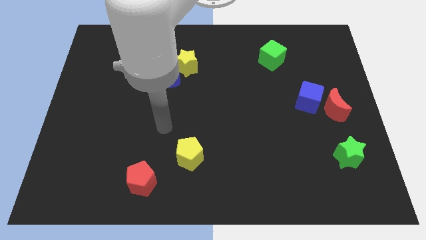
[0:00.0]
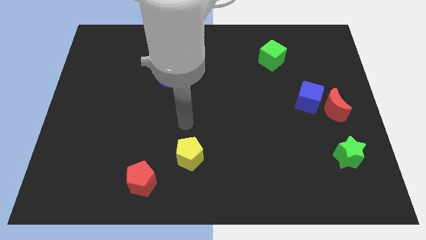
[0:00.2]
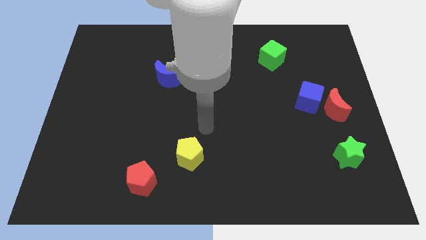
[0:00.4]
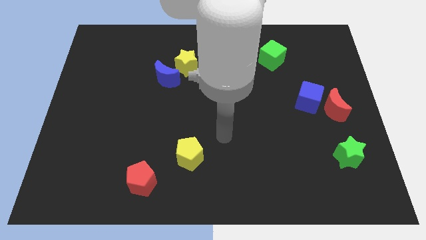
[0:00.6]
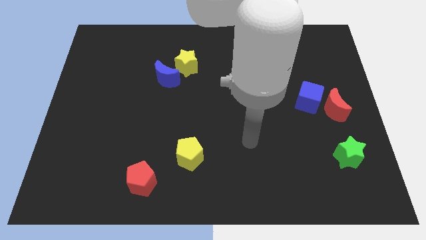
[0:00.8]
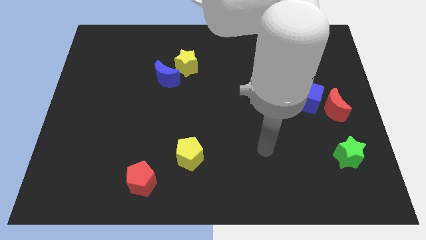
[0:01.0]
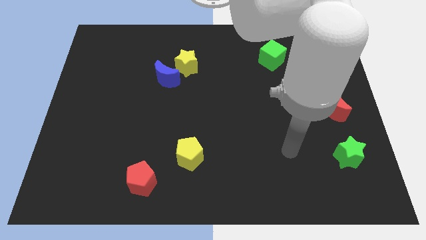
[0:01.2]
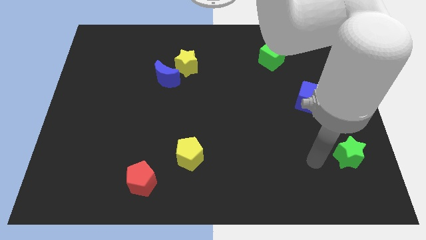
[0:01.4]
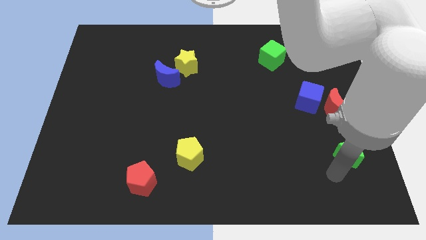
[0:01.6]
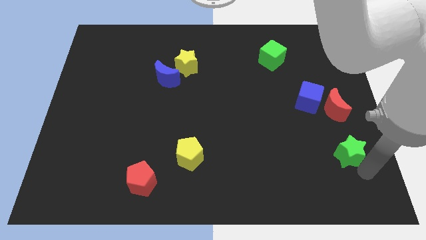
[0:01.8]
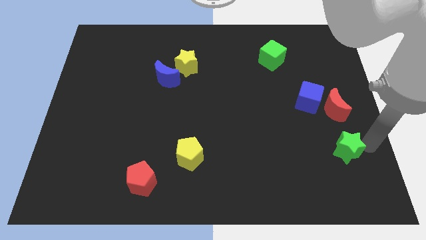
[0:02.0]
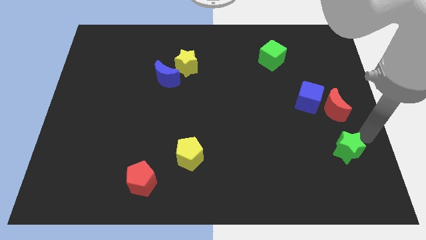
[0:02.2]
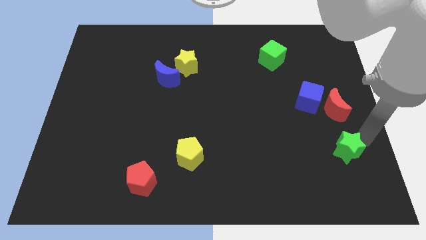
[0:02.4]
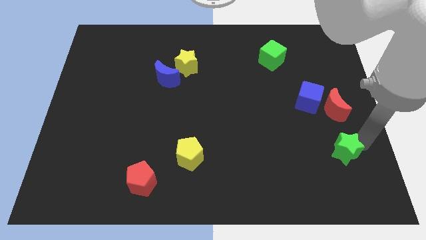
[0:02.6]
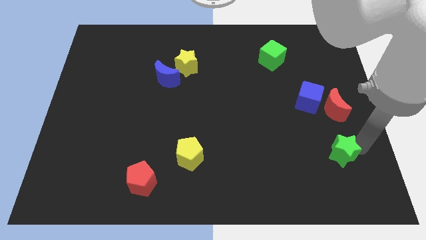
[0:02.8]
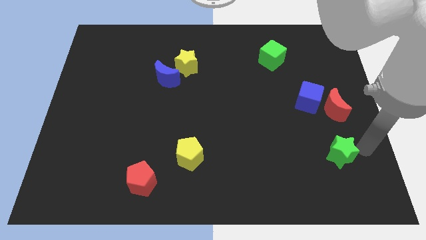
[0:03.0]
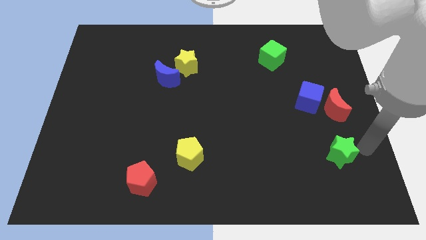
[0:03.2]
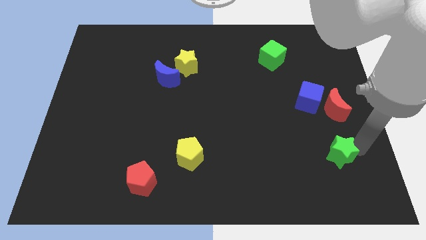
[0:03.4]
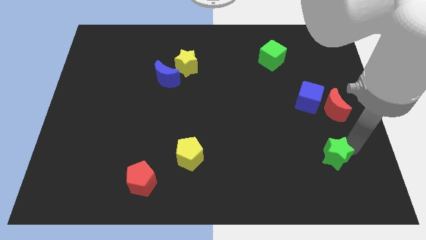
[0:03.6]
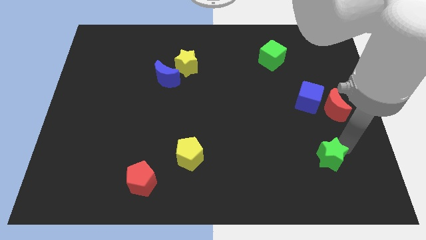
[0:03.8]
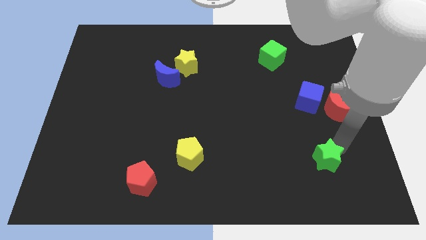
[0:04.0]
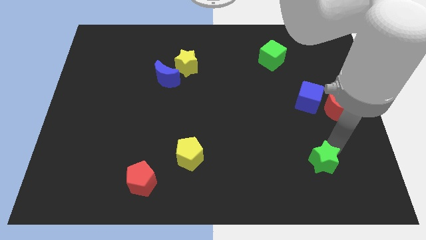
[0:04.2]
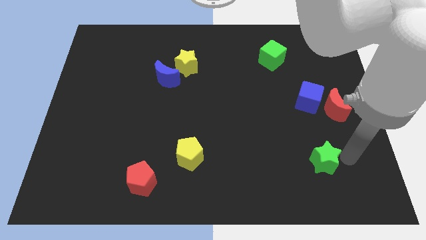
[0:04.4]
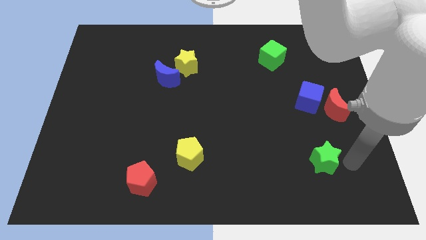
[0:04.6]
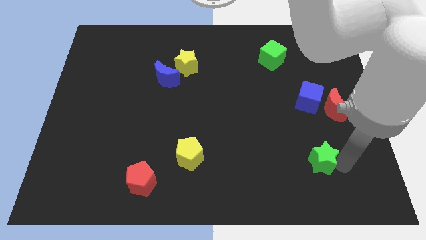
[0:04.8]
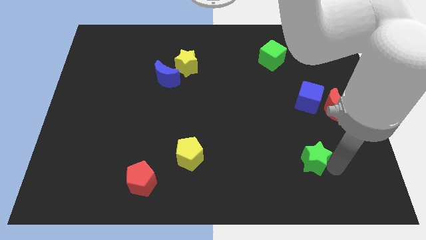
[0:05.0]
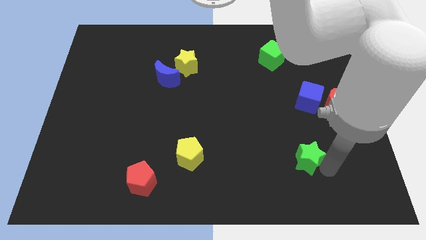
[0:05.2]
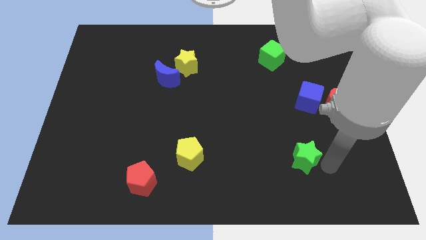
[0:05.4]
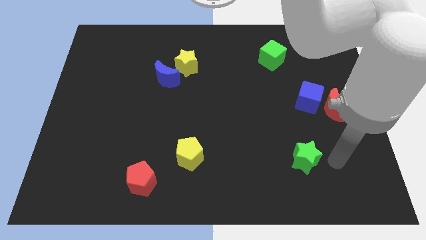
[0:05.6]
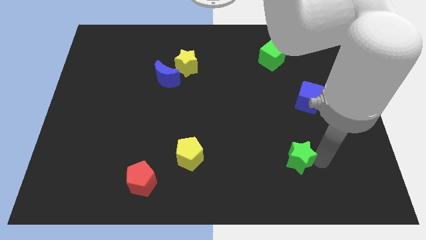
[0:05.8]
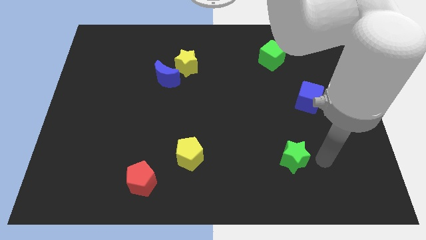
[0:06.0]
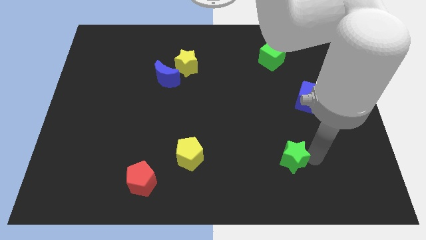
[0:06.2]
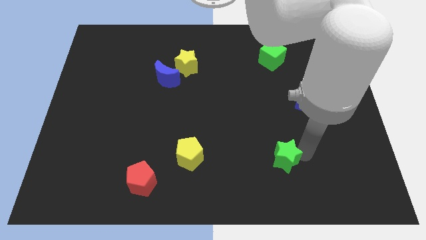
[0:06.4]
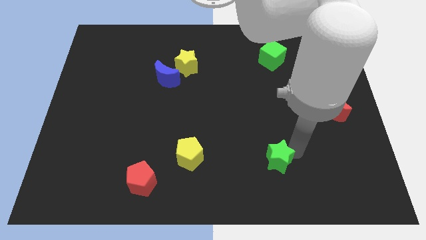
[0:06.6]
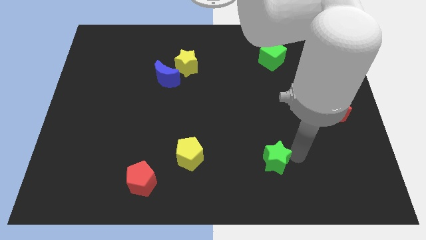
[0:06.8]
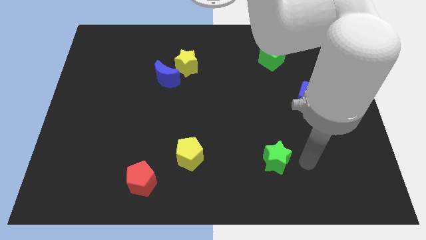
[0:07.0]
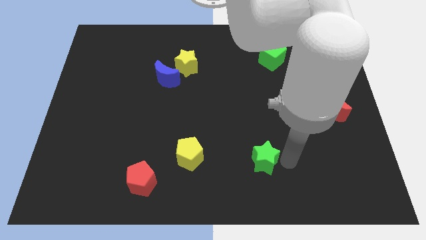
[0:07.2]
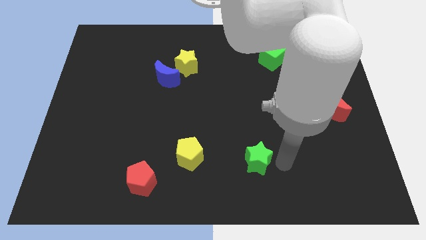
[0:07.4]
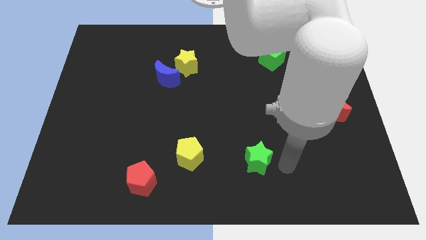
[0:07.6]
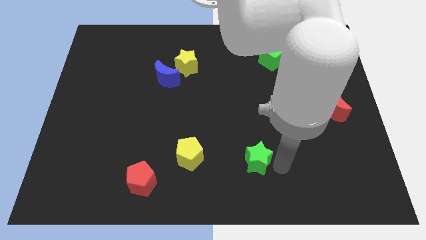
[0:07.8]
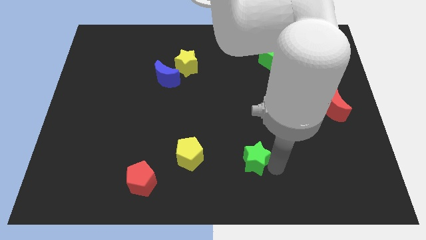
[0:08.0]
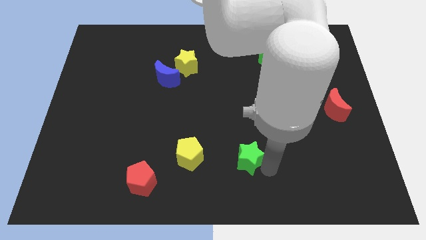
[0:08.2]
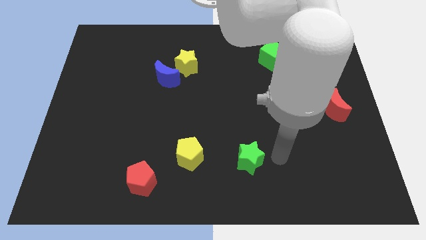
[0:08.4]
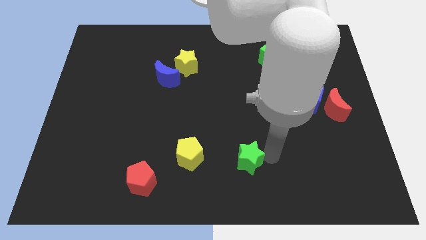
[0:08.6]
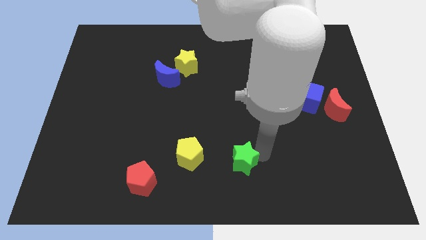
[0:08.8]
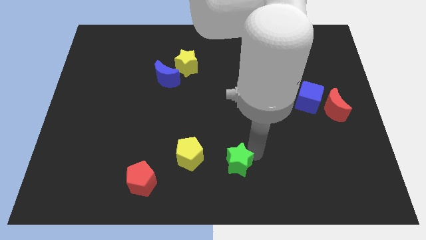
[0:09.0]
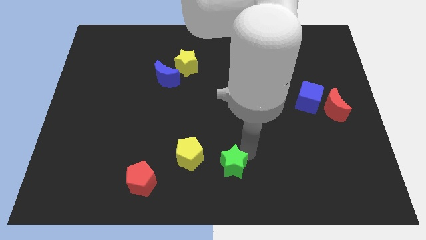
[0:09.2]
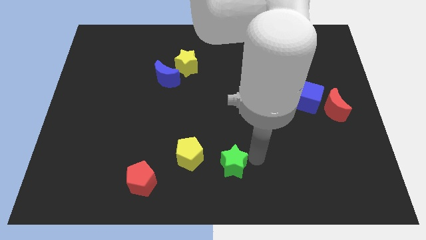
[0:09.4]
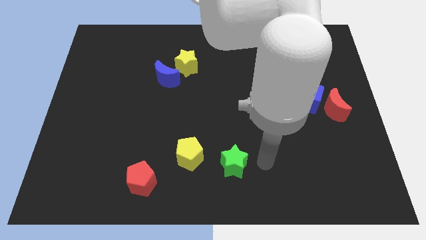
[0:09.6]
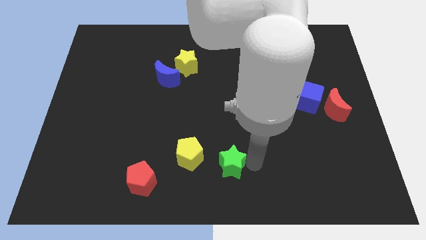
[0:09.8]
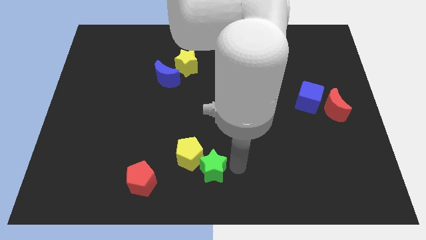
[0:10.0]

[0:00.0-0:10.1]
push the green star next to the yellow pentagon
